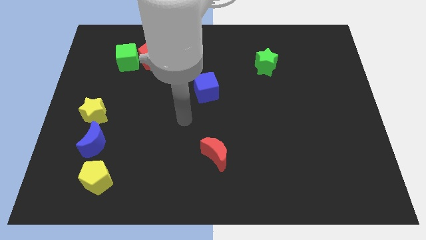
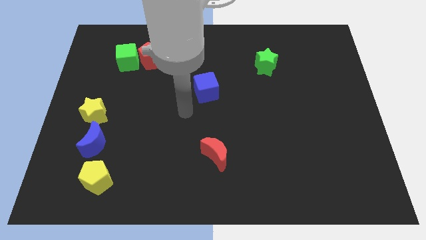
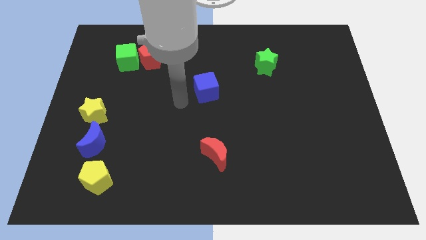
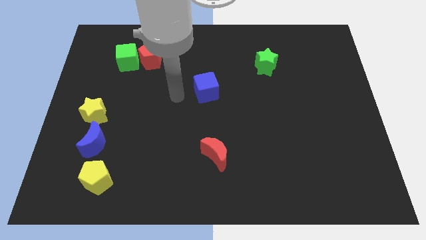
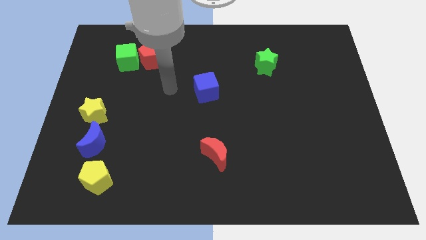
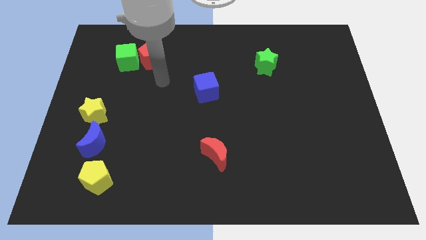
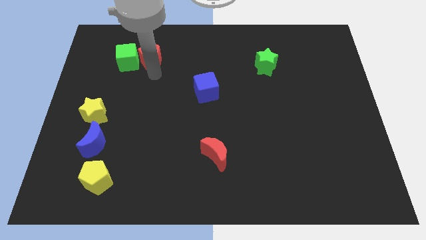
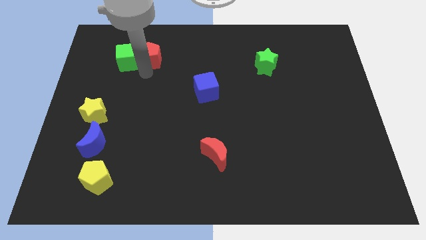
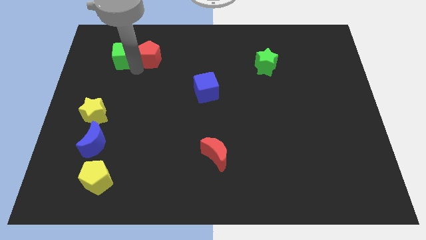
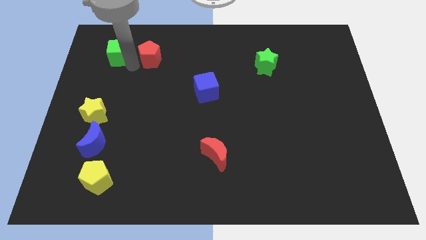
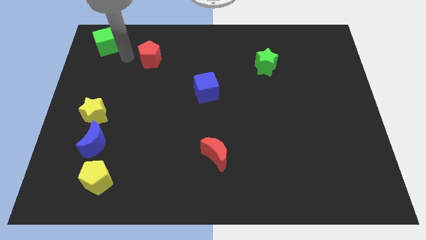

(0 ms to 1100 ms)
separate the red pentagon from the green cube

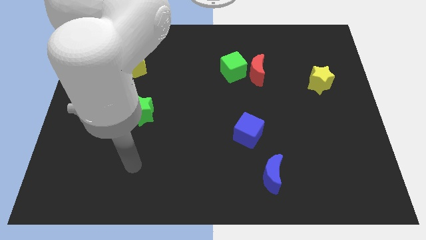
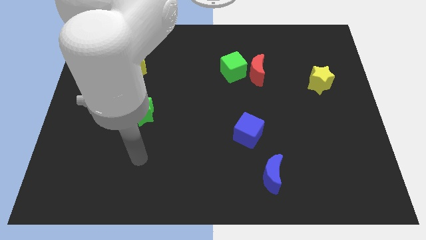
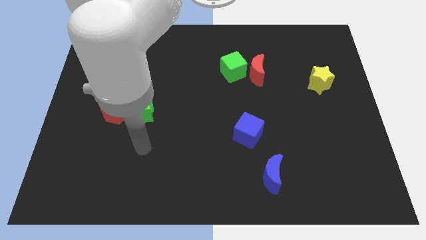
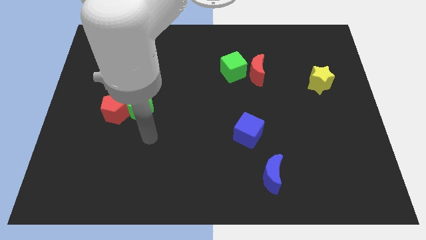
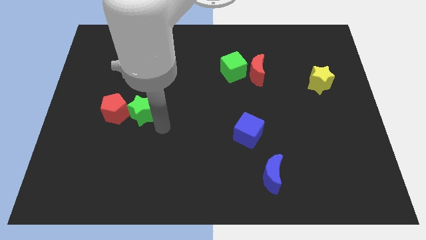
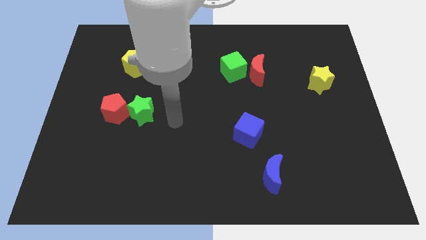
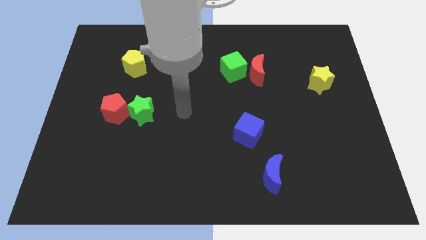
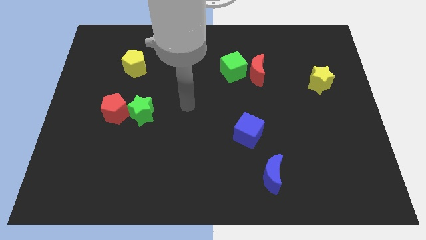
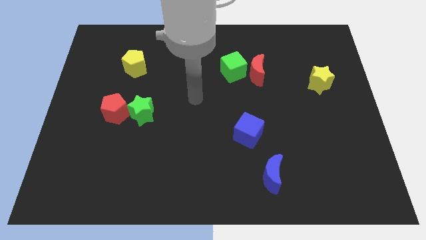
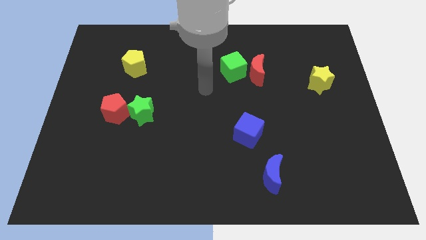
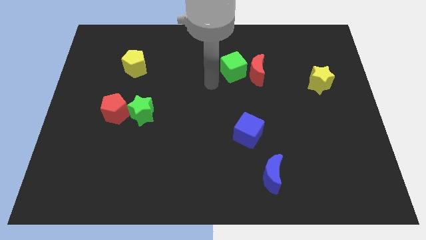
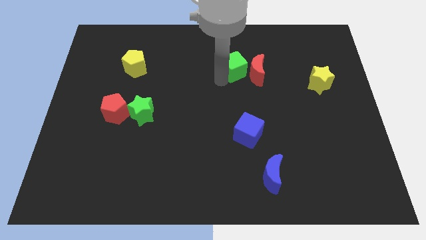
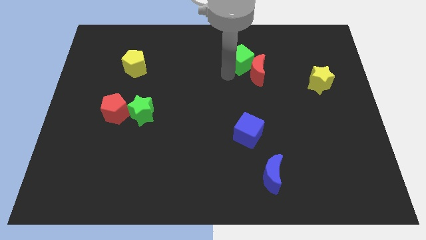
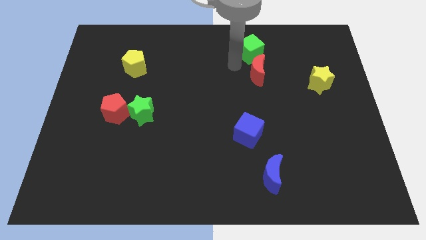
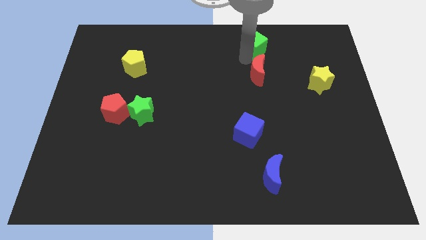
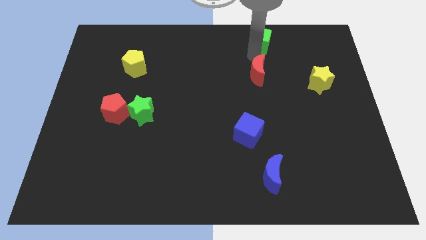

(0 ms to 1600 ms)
separate the red moon from the green cube

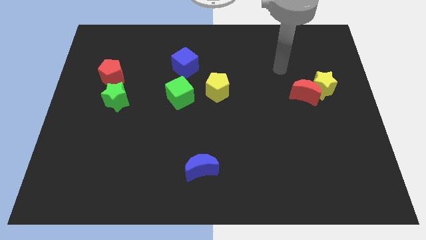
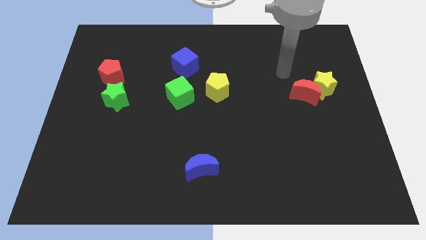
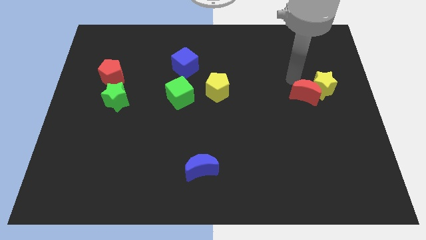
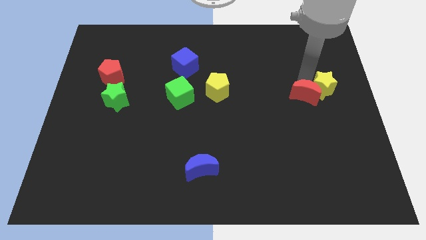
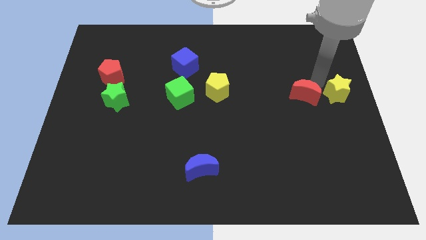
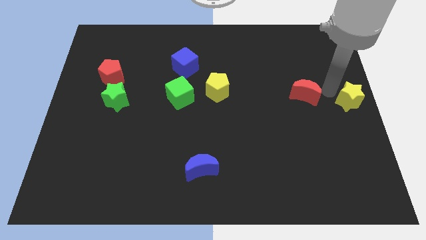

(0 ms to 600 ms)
pull the red moon apart from the yellow star

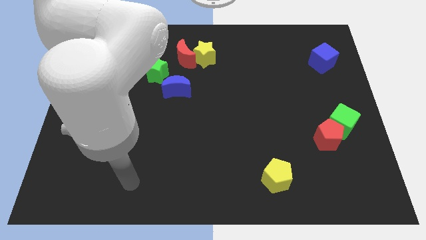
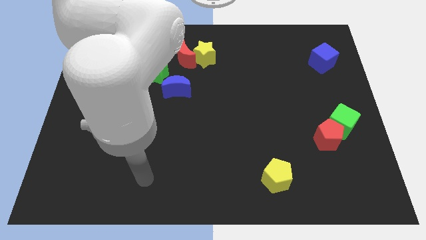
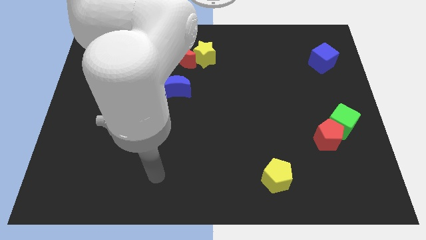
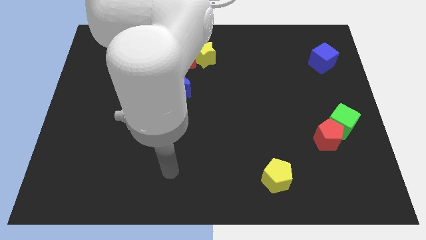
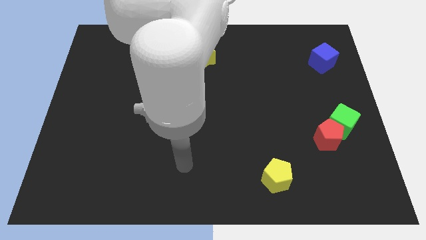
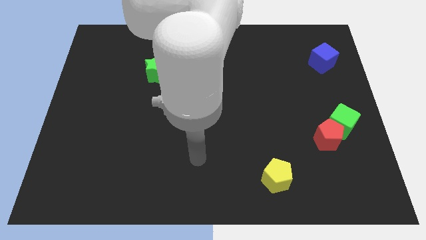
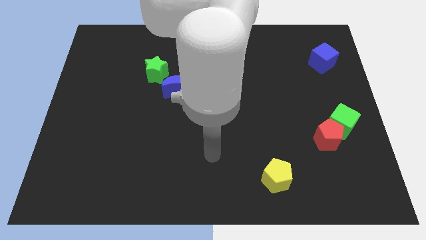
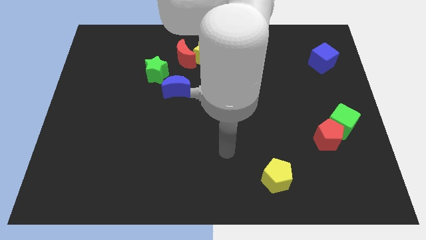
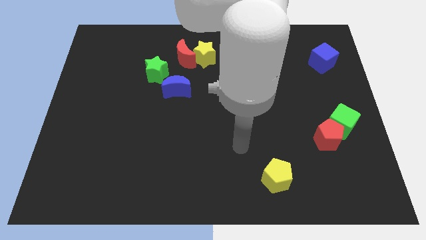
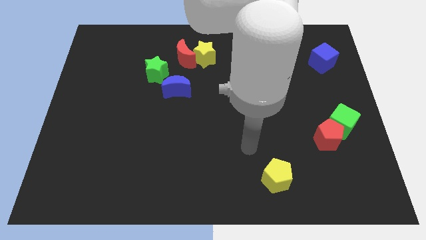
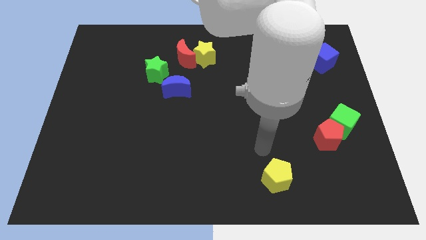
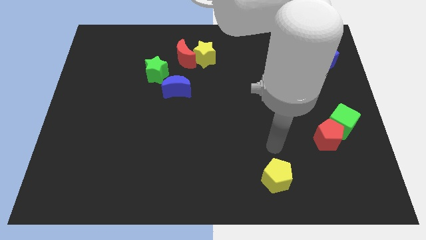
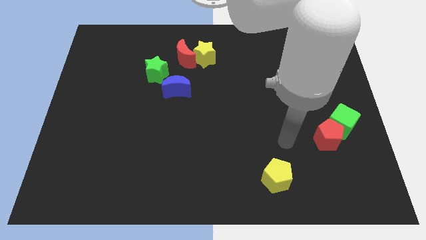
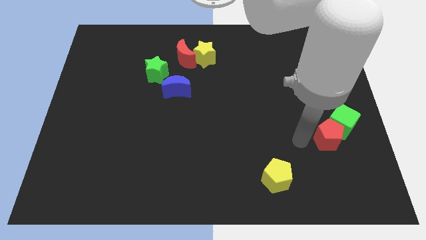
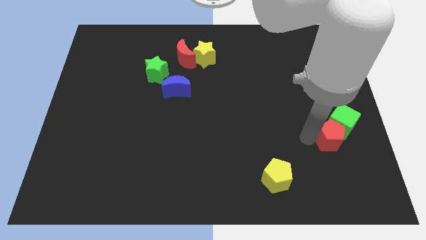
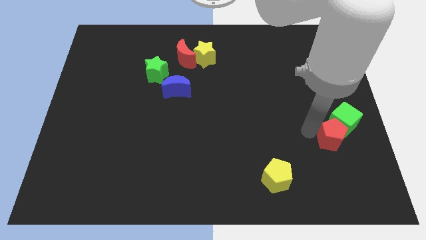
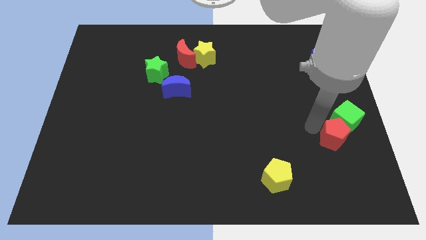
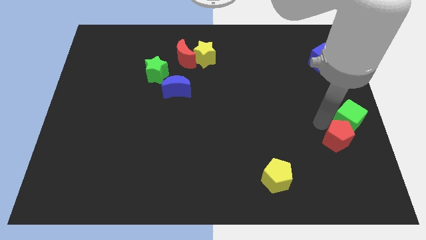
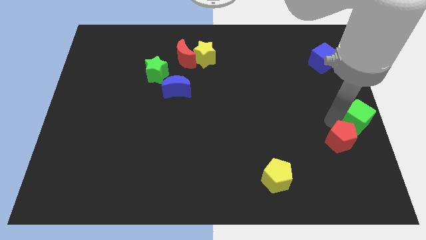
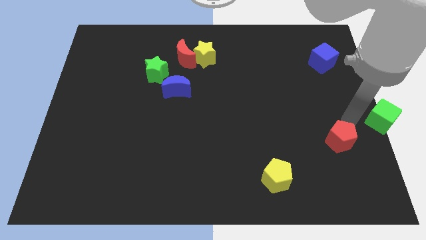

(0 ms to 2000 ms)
move the red pentagon away from the green cube

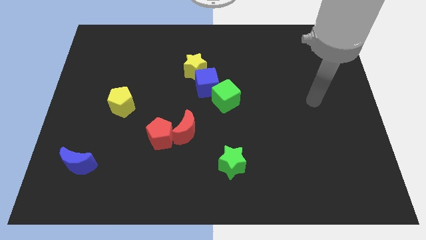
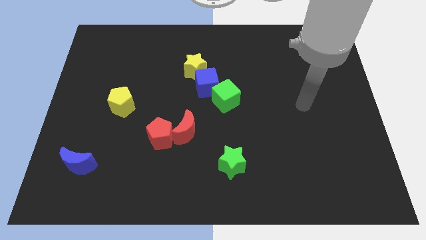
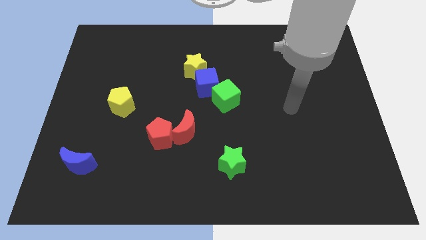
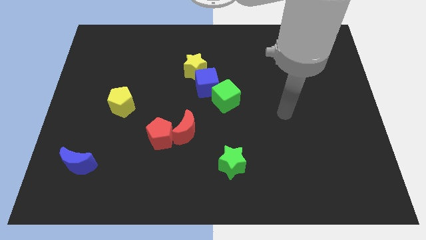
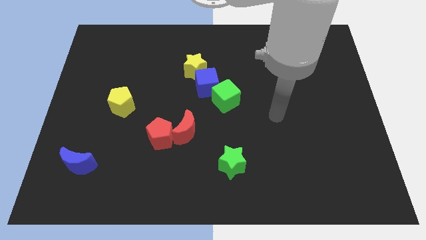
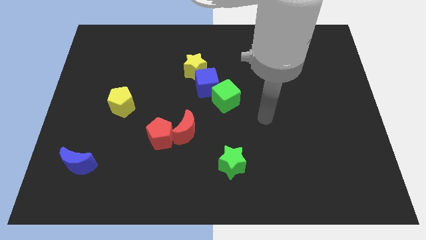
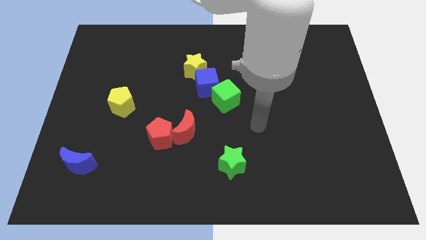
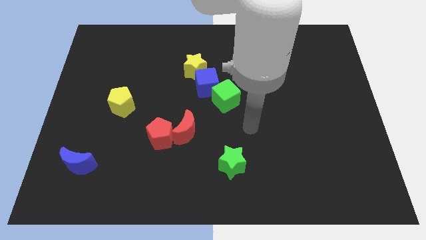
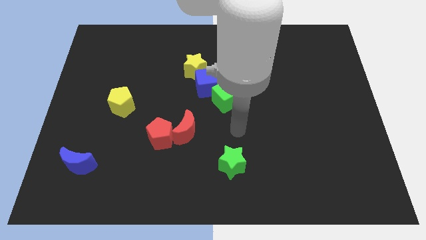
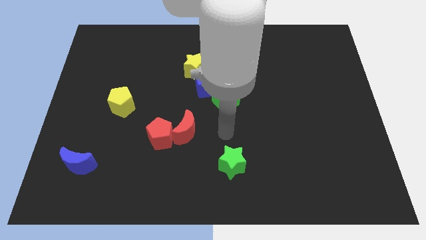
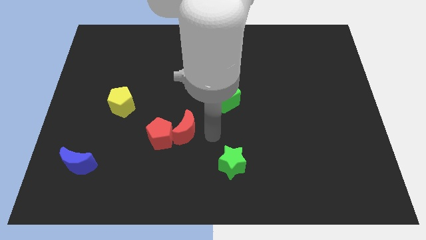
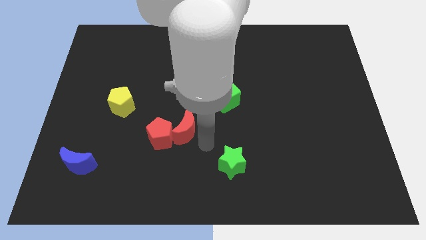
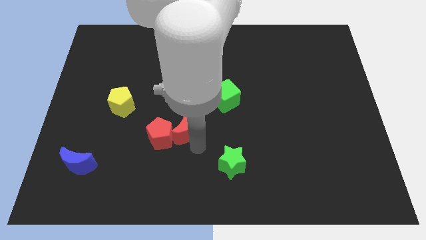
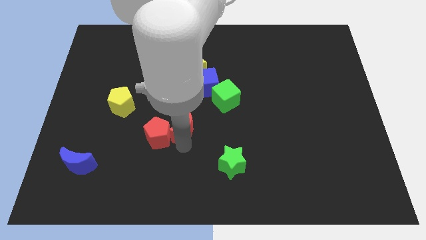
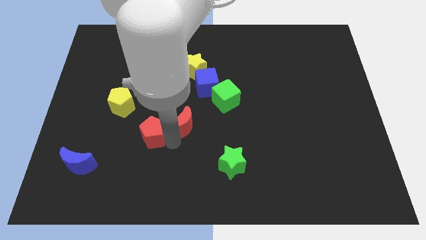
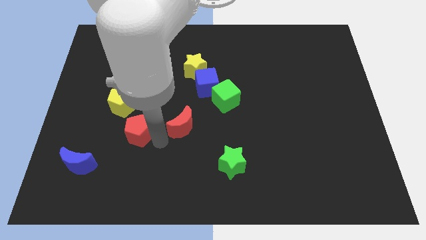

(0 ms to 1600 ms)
move the red moon away from the red pentagon

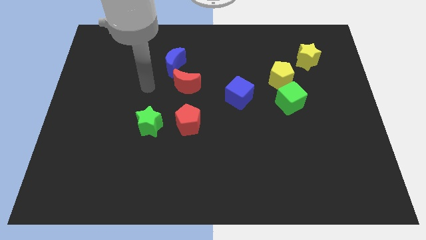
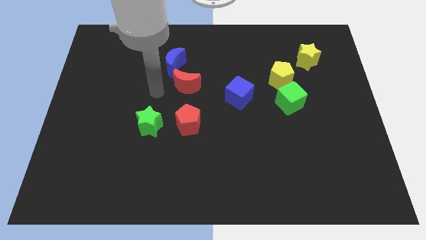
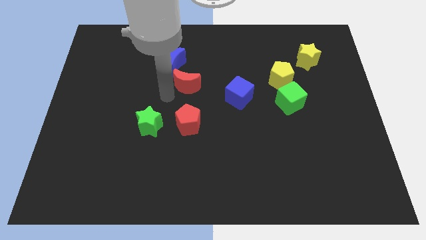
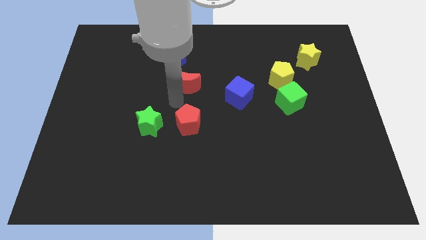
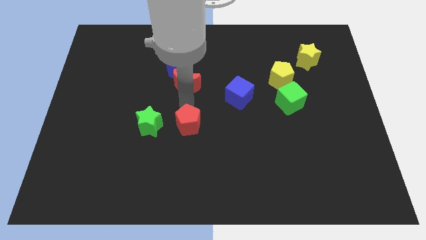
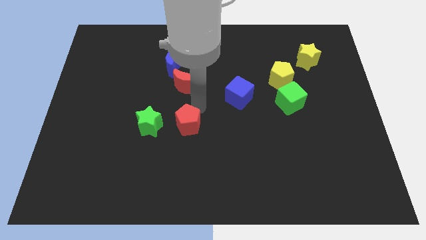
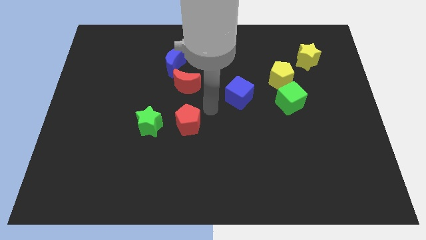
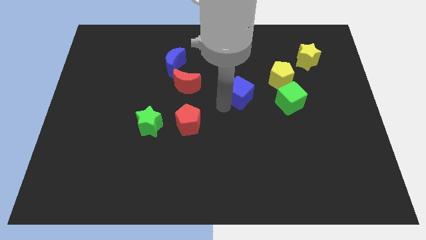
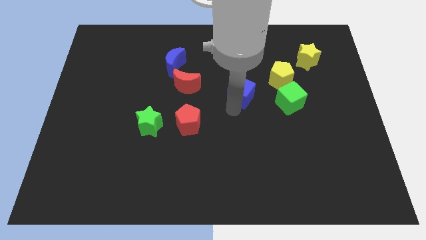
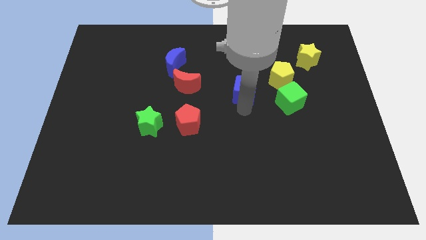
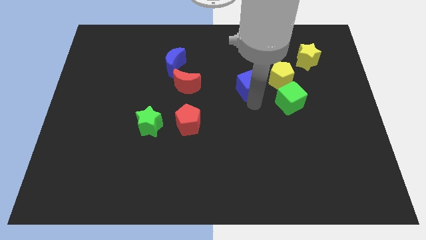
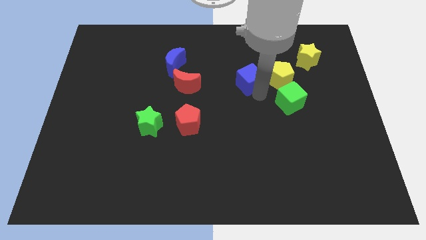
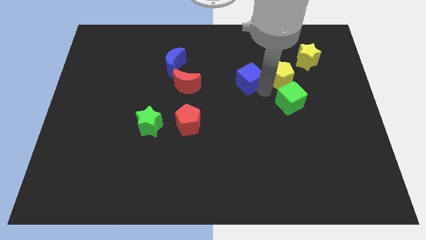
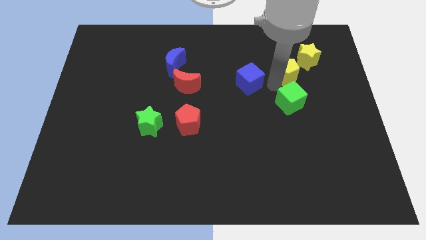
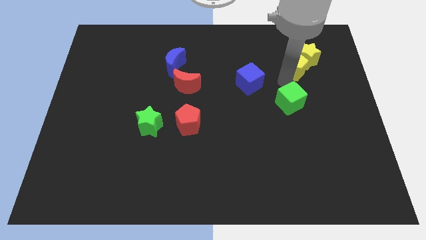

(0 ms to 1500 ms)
separate the green cube from the yellow pentagon

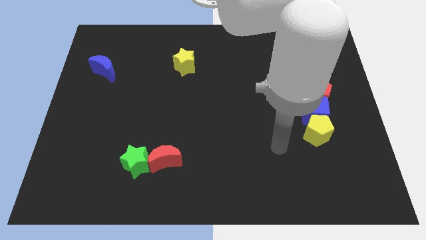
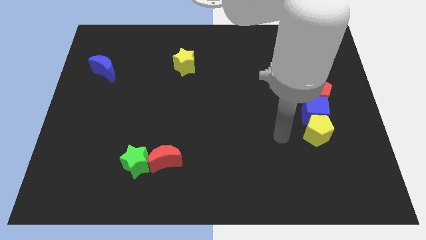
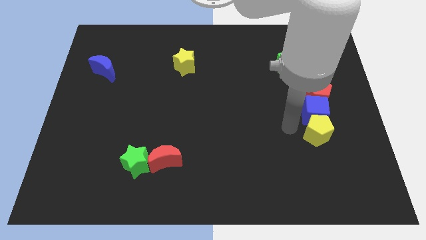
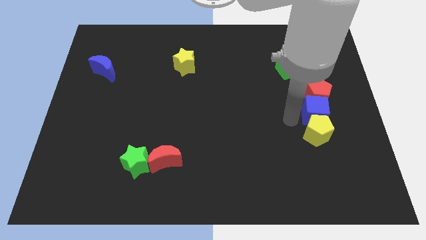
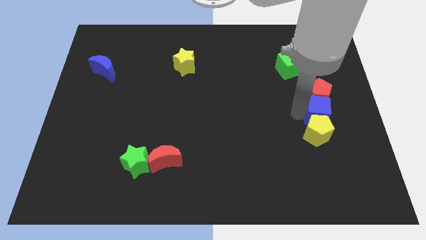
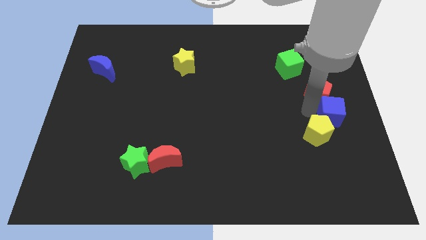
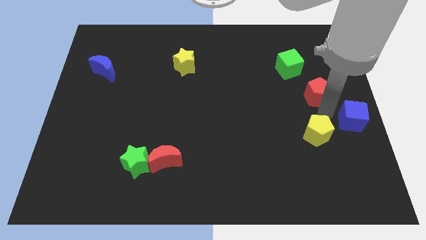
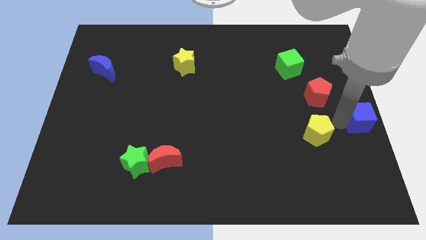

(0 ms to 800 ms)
pull the yellow pentagon apart from the blue cube

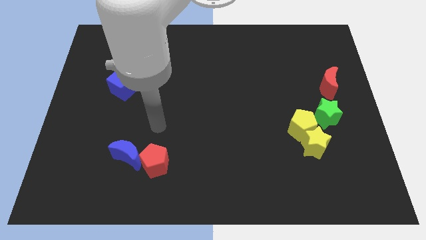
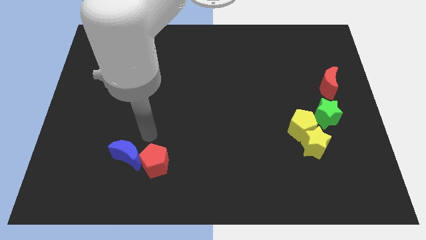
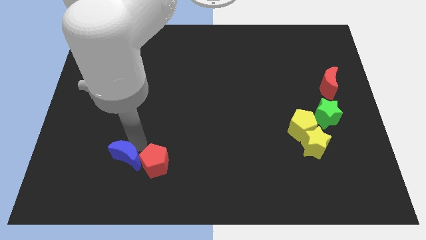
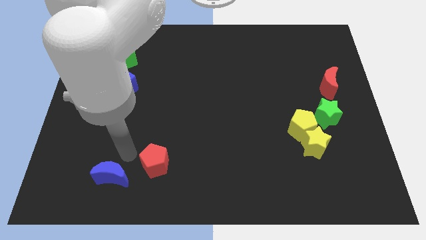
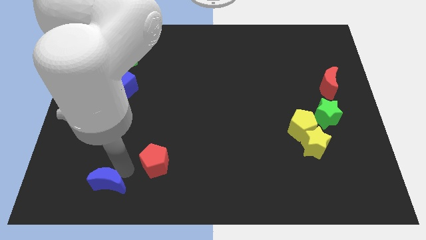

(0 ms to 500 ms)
move the red pentagon away from the blue moon
